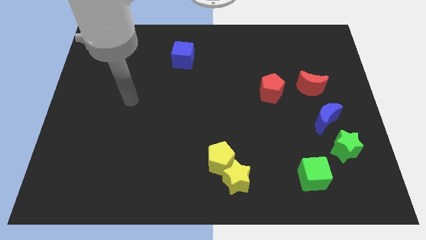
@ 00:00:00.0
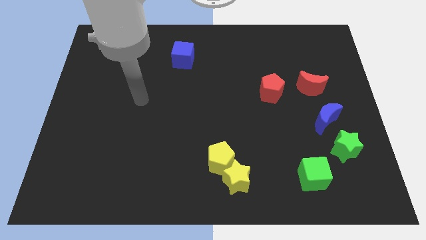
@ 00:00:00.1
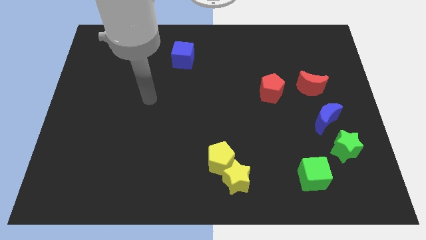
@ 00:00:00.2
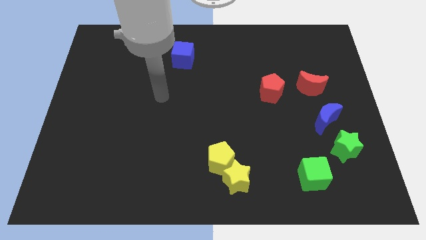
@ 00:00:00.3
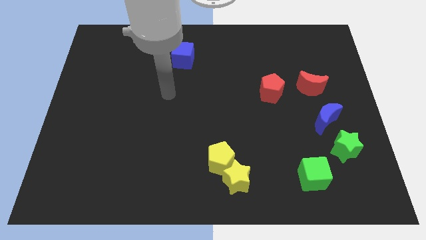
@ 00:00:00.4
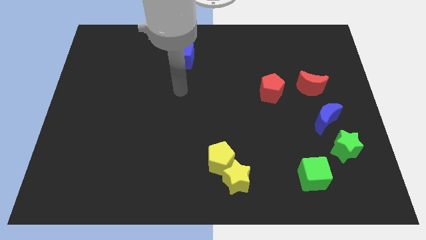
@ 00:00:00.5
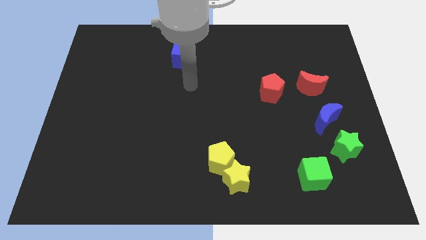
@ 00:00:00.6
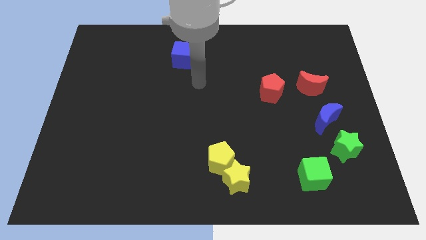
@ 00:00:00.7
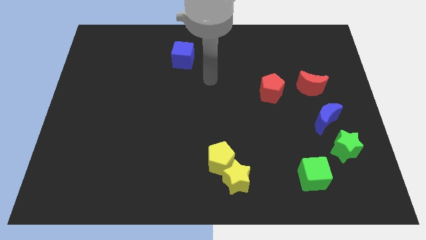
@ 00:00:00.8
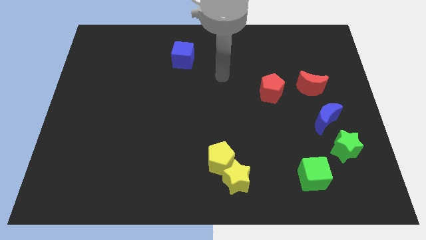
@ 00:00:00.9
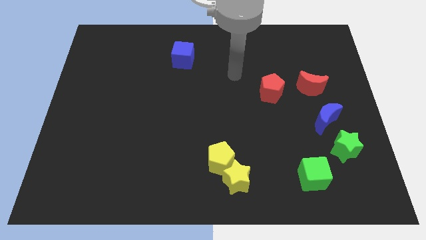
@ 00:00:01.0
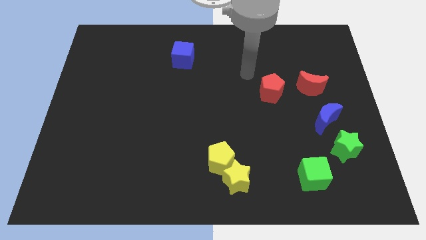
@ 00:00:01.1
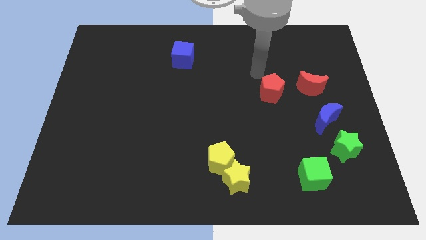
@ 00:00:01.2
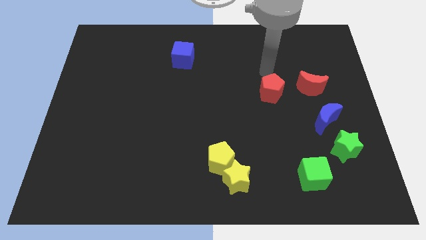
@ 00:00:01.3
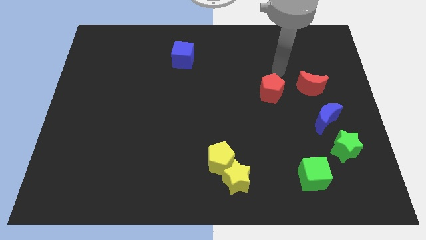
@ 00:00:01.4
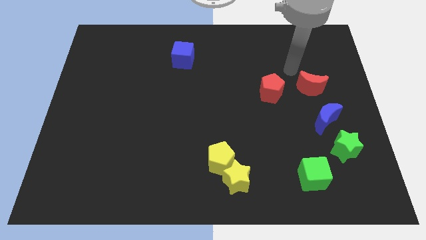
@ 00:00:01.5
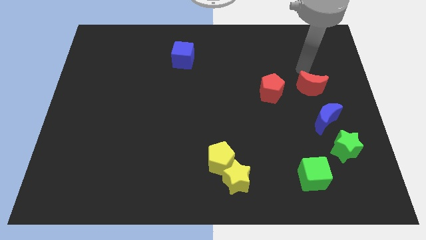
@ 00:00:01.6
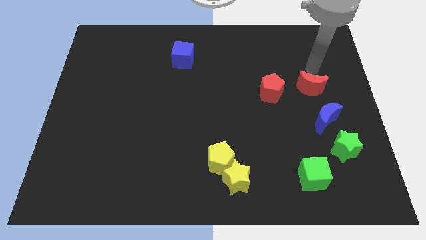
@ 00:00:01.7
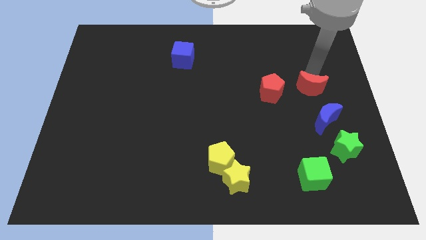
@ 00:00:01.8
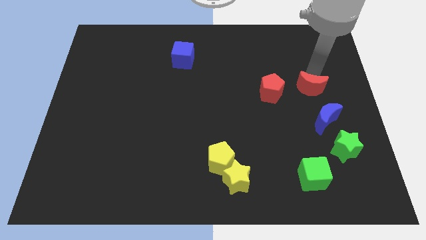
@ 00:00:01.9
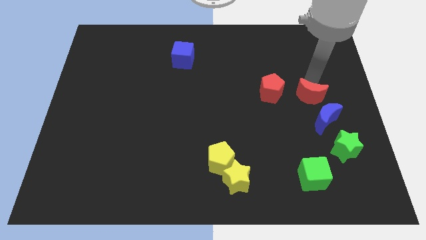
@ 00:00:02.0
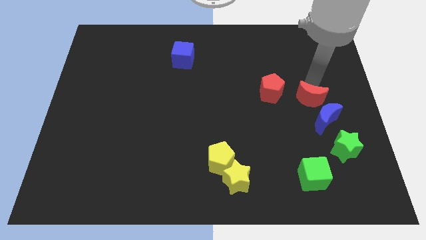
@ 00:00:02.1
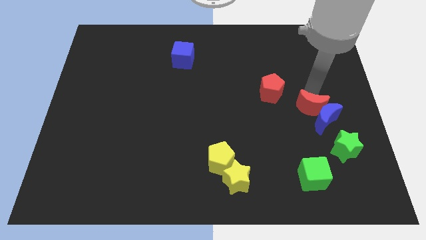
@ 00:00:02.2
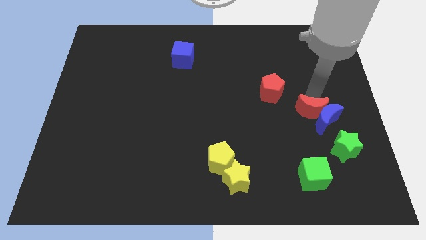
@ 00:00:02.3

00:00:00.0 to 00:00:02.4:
slightly slide the red moon down

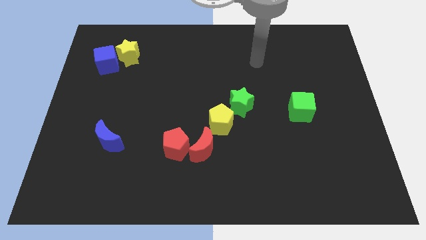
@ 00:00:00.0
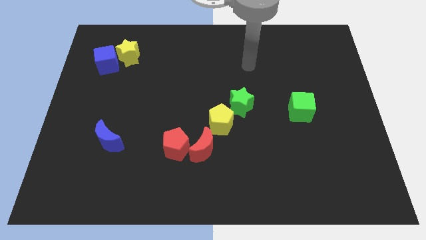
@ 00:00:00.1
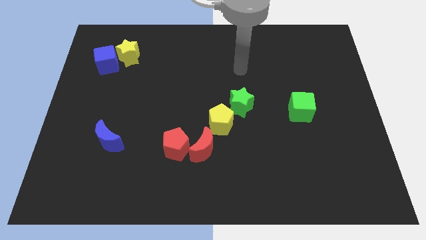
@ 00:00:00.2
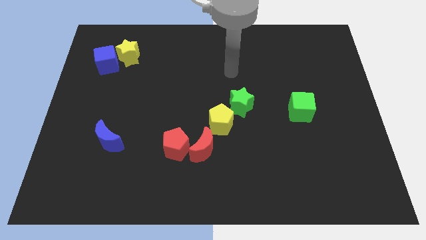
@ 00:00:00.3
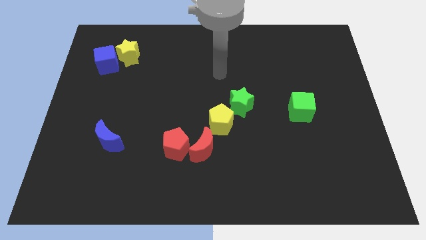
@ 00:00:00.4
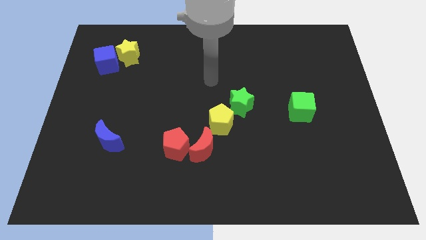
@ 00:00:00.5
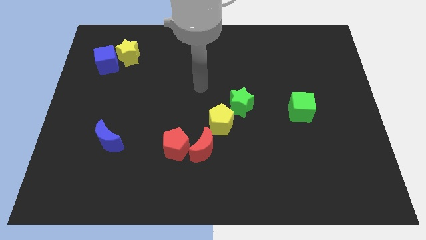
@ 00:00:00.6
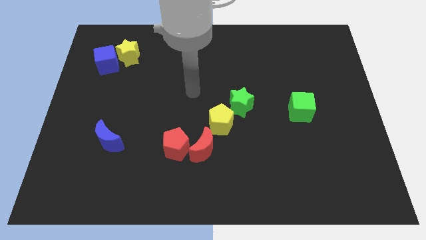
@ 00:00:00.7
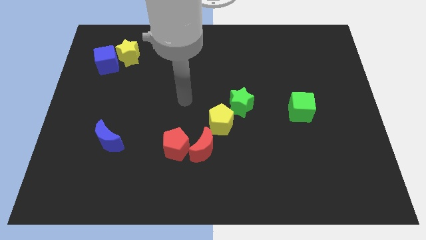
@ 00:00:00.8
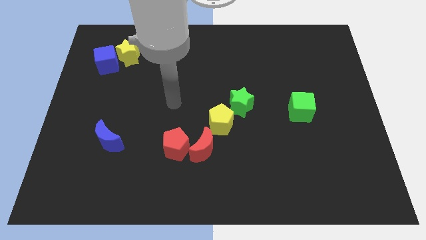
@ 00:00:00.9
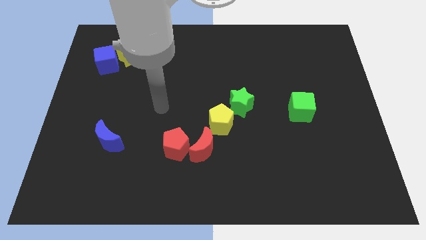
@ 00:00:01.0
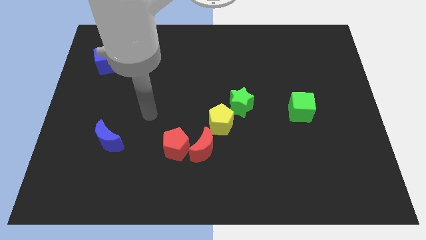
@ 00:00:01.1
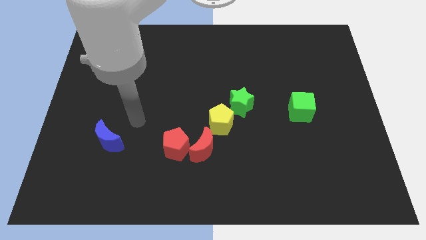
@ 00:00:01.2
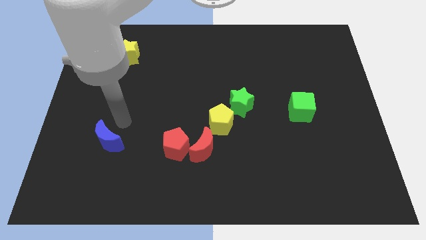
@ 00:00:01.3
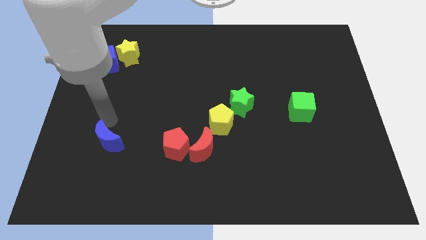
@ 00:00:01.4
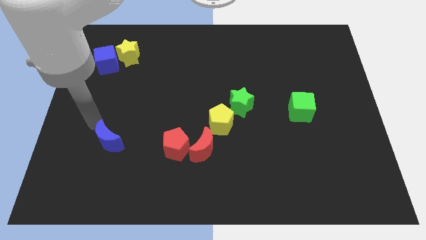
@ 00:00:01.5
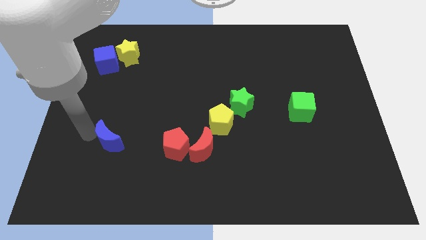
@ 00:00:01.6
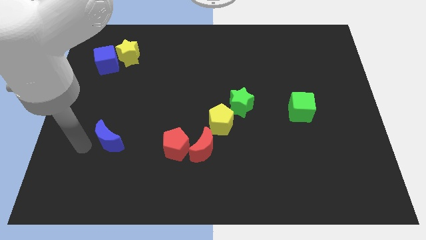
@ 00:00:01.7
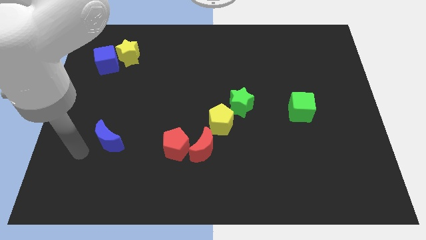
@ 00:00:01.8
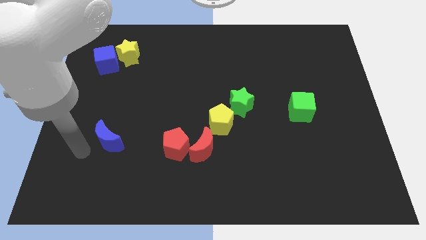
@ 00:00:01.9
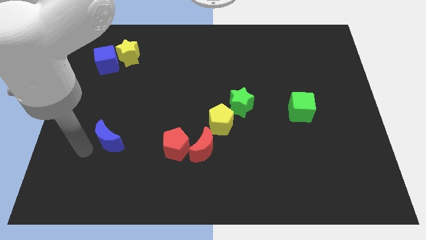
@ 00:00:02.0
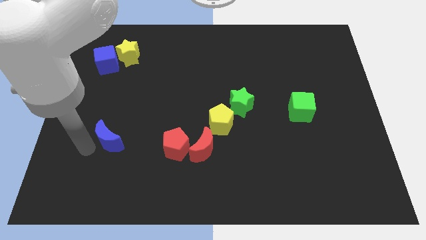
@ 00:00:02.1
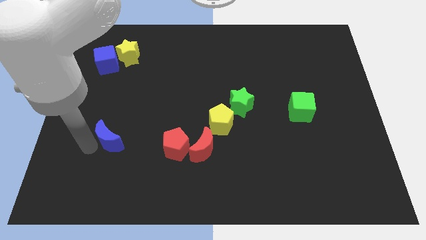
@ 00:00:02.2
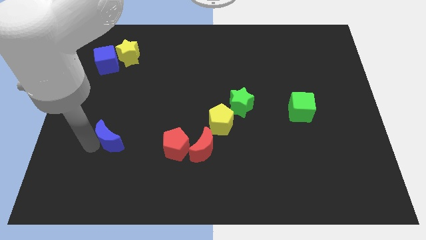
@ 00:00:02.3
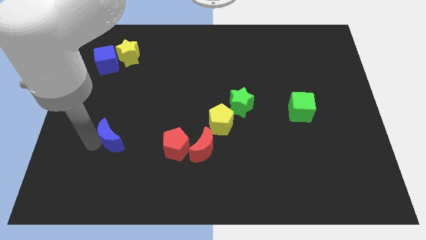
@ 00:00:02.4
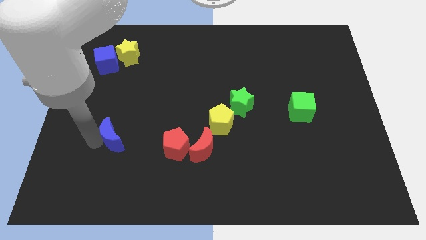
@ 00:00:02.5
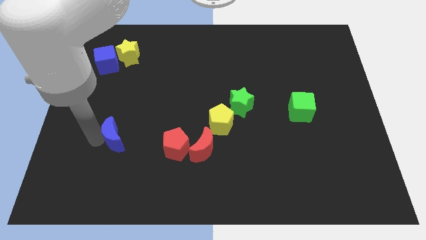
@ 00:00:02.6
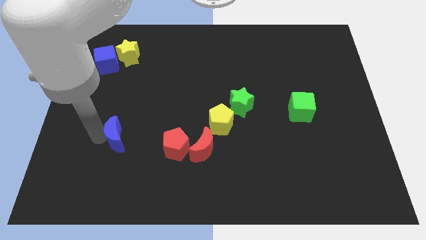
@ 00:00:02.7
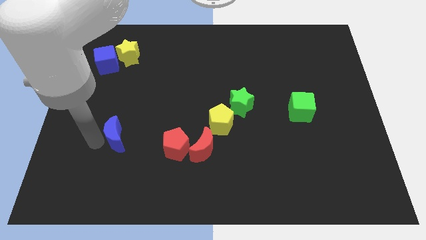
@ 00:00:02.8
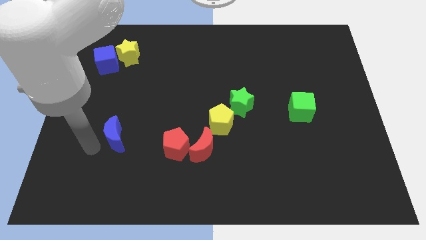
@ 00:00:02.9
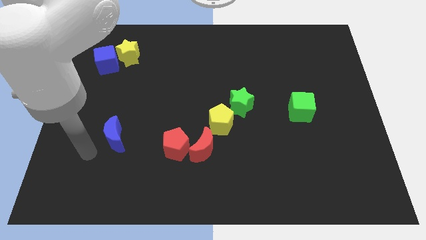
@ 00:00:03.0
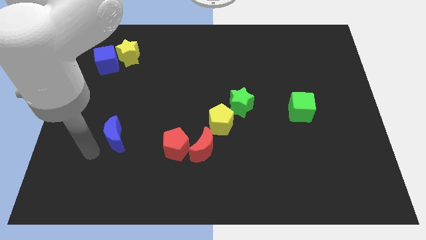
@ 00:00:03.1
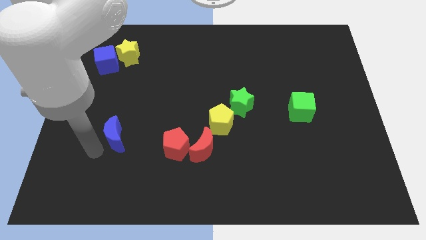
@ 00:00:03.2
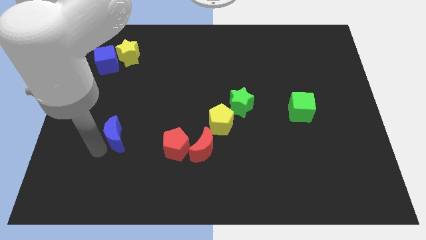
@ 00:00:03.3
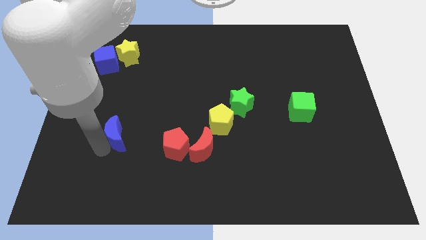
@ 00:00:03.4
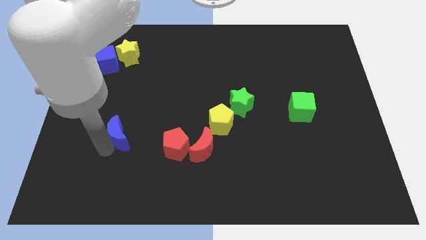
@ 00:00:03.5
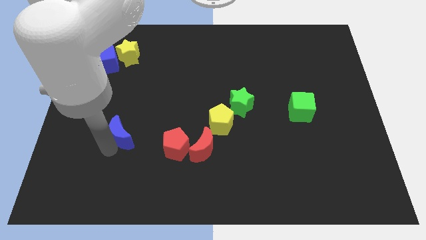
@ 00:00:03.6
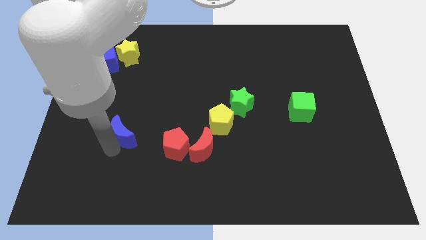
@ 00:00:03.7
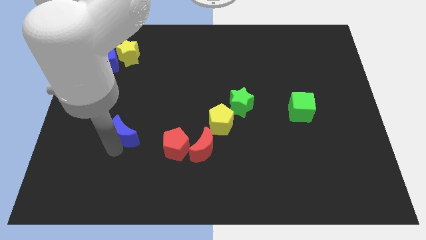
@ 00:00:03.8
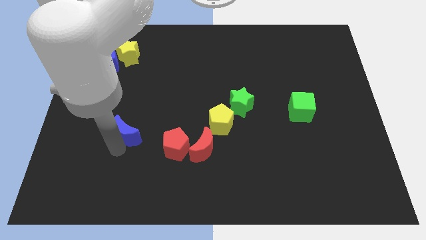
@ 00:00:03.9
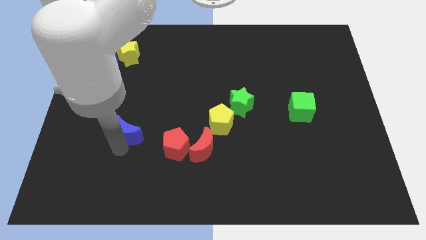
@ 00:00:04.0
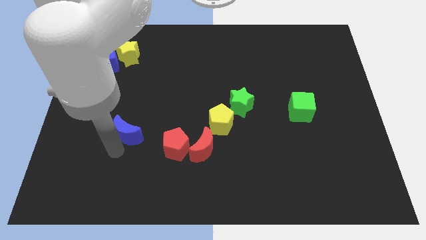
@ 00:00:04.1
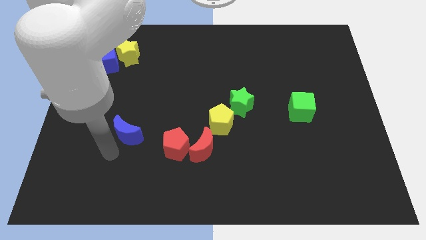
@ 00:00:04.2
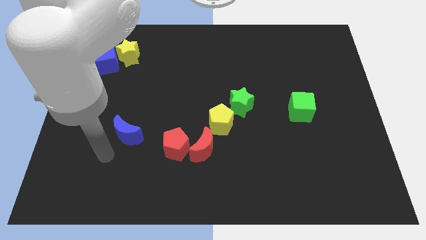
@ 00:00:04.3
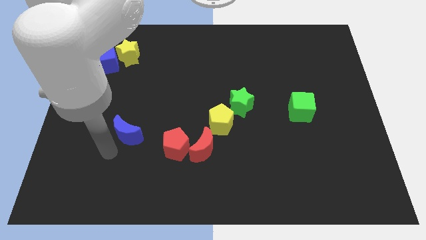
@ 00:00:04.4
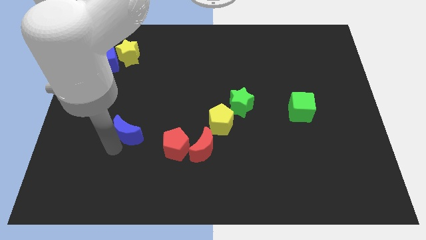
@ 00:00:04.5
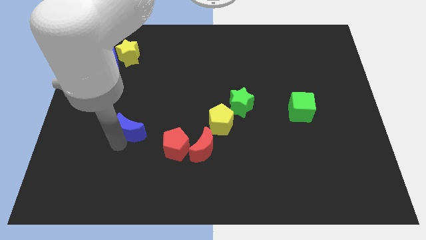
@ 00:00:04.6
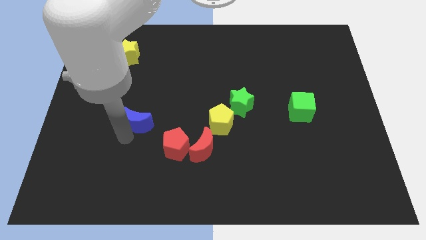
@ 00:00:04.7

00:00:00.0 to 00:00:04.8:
slide the blue moon diagonally upwards and right a little bit

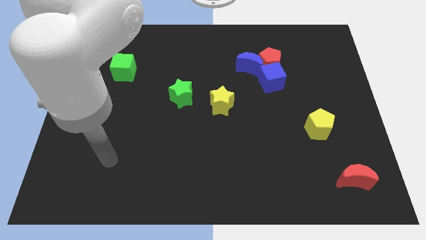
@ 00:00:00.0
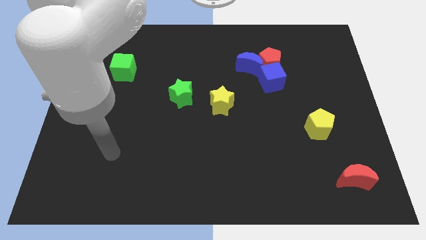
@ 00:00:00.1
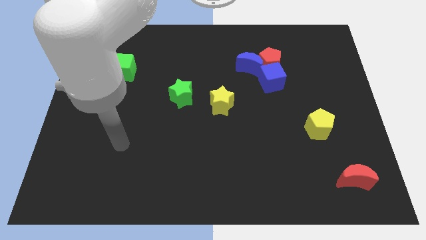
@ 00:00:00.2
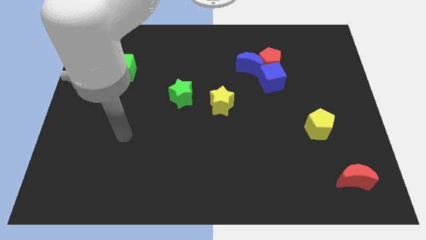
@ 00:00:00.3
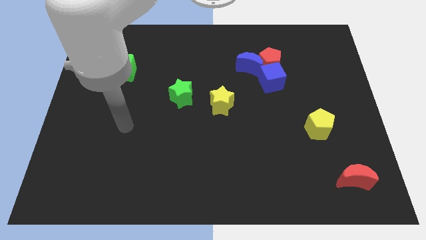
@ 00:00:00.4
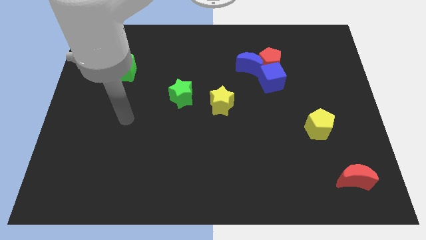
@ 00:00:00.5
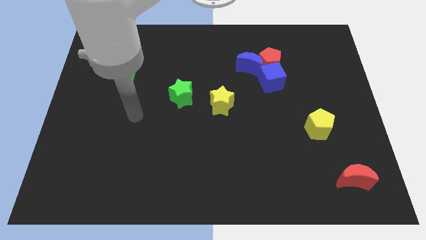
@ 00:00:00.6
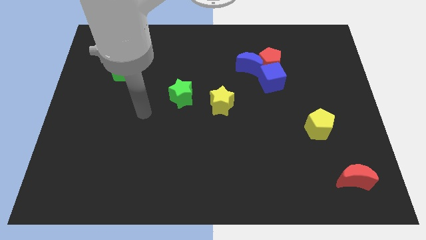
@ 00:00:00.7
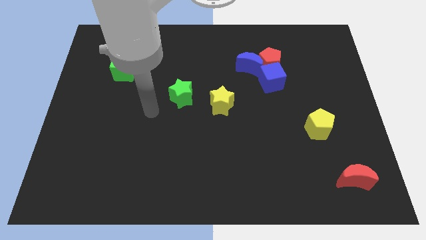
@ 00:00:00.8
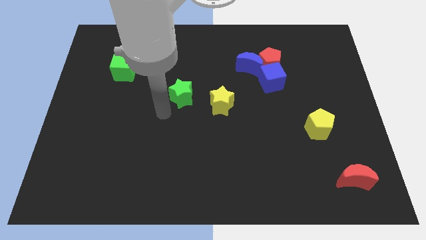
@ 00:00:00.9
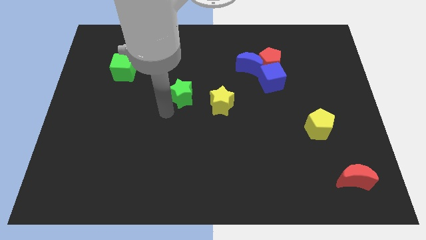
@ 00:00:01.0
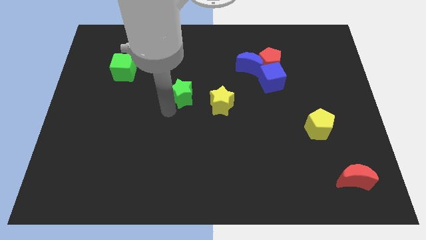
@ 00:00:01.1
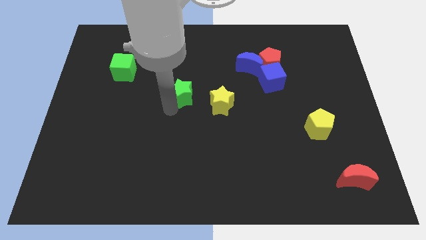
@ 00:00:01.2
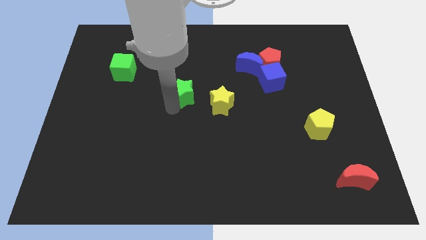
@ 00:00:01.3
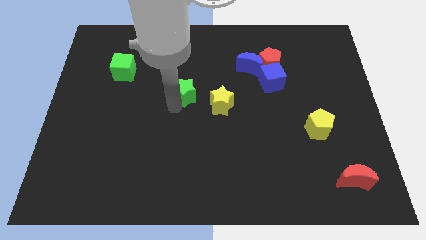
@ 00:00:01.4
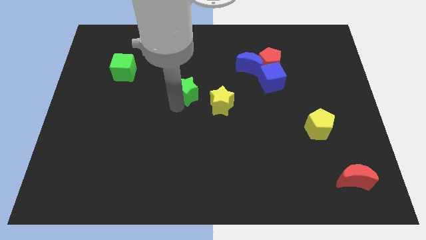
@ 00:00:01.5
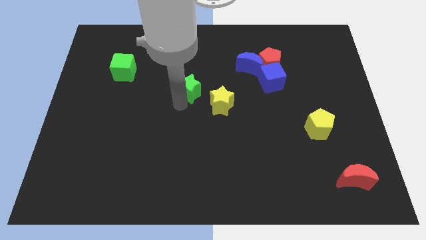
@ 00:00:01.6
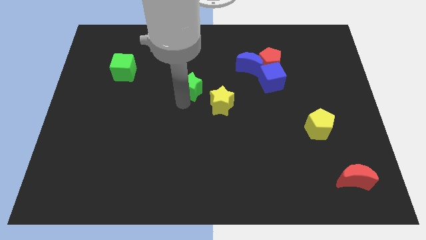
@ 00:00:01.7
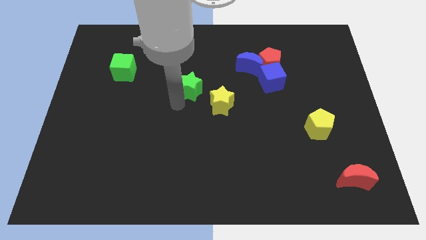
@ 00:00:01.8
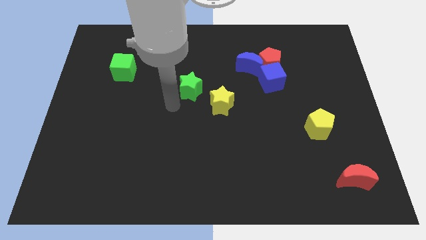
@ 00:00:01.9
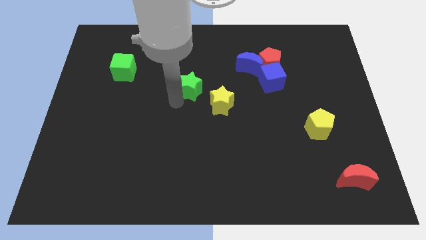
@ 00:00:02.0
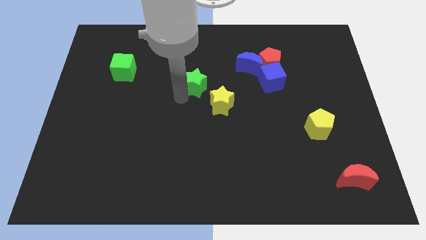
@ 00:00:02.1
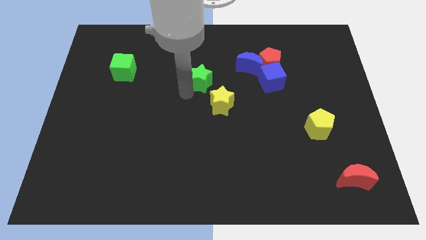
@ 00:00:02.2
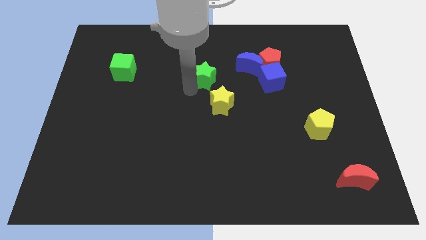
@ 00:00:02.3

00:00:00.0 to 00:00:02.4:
slide the green star a bit up and right diagonally
